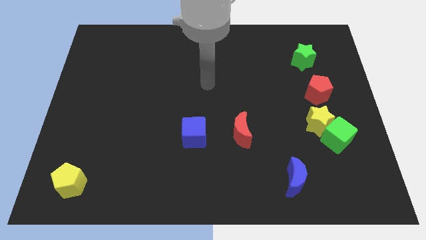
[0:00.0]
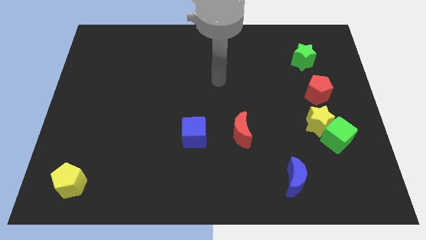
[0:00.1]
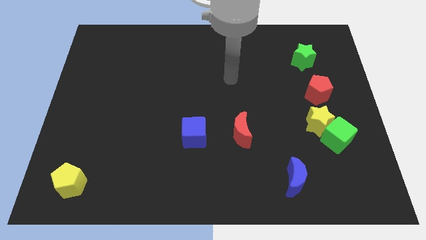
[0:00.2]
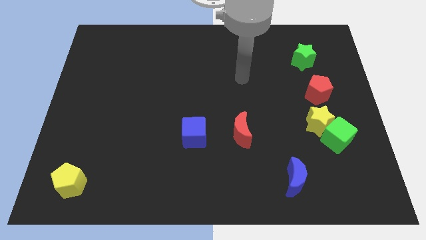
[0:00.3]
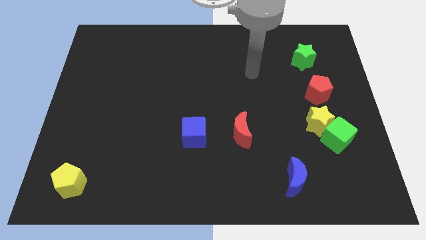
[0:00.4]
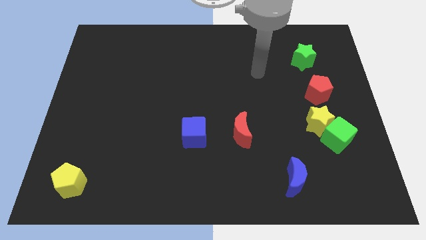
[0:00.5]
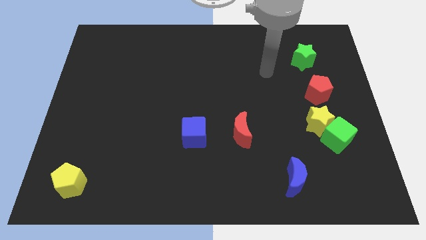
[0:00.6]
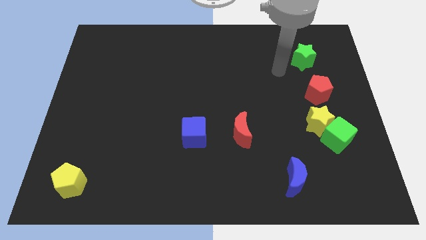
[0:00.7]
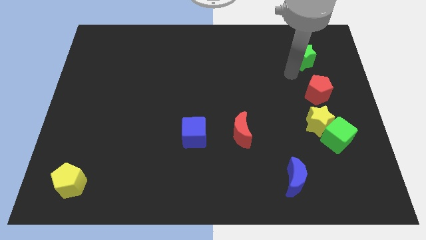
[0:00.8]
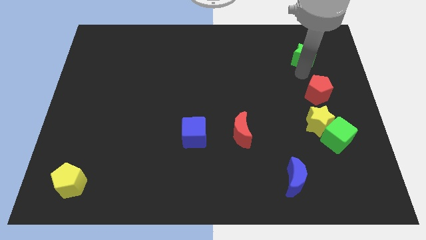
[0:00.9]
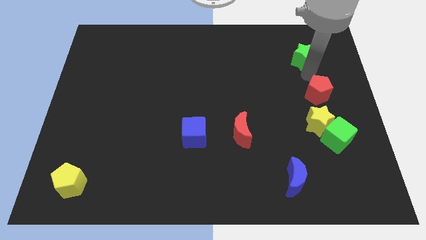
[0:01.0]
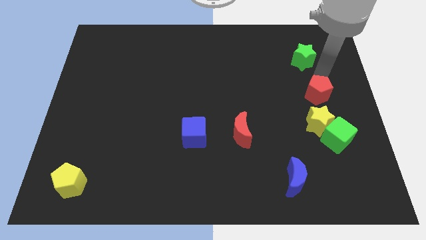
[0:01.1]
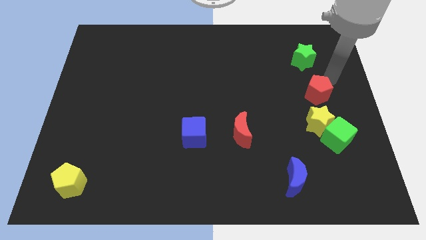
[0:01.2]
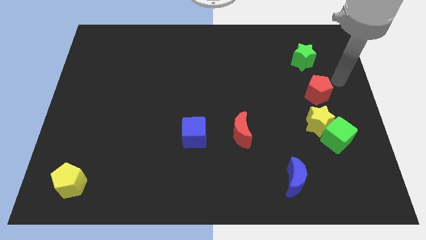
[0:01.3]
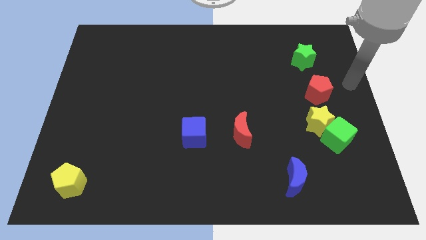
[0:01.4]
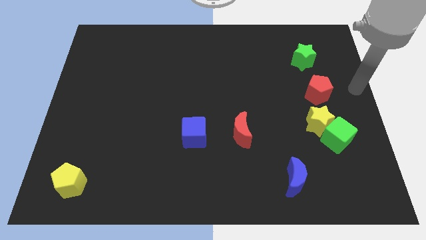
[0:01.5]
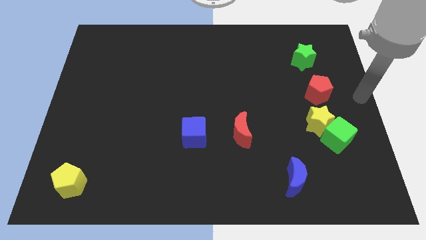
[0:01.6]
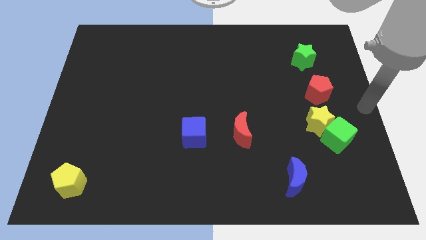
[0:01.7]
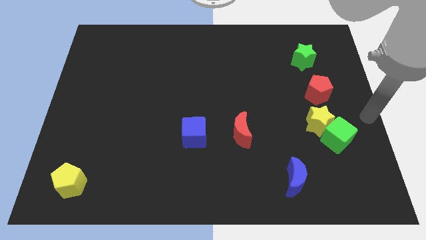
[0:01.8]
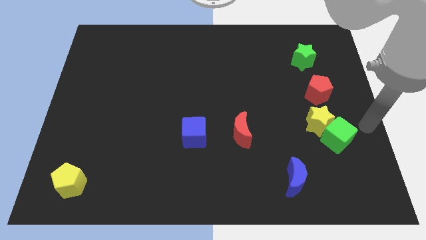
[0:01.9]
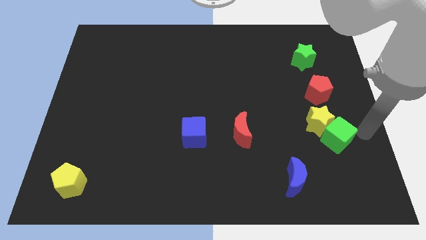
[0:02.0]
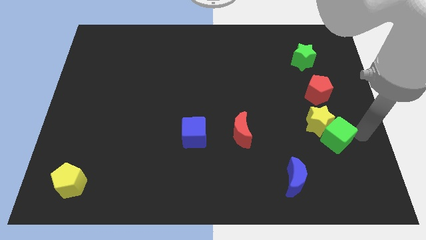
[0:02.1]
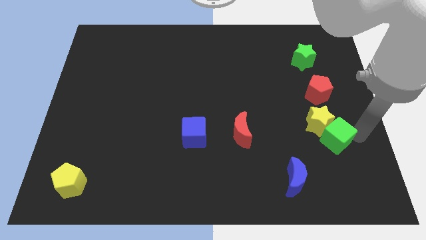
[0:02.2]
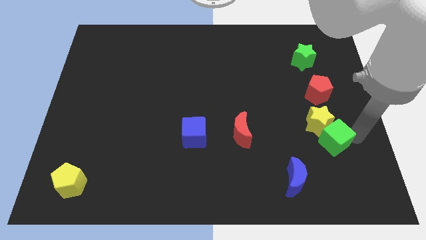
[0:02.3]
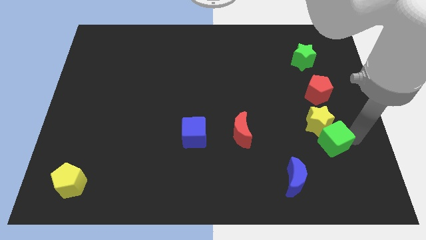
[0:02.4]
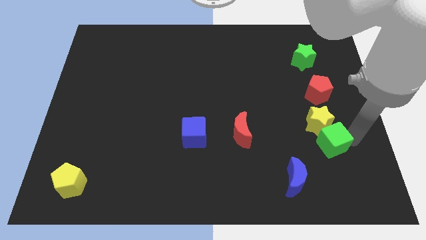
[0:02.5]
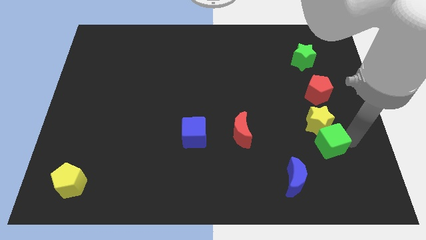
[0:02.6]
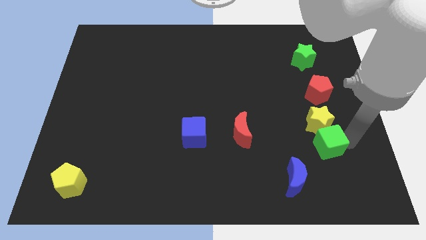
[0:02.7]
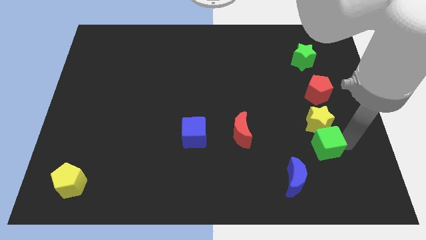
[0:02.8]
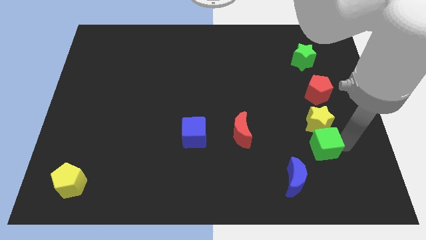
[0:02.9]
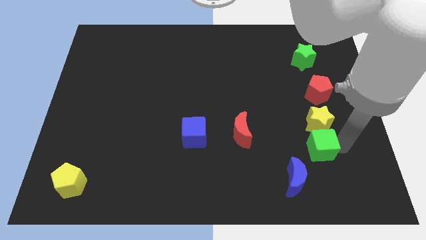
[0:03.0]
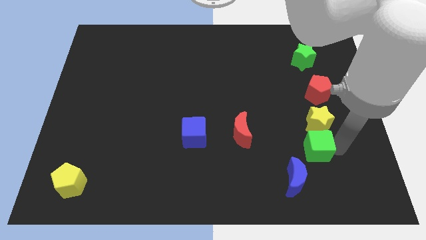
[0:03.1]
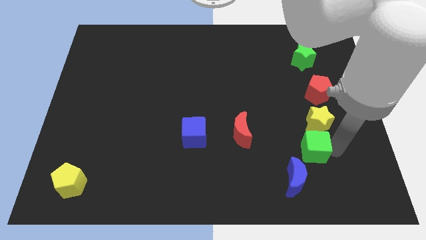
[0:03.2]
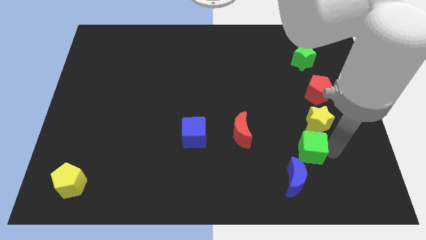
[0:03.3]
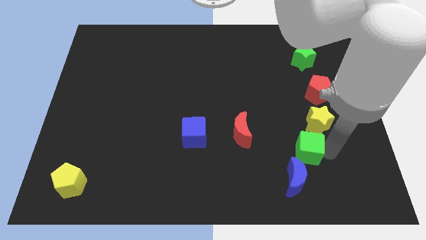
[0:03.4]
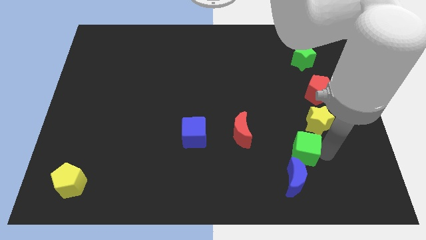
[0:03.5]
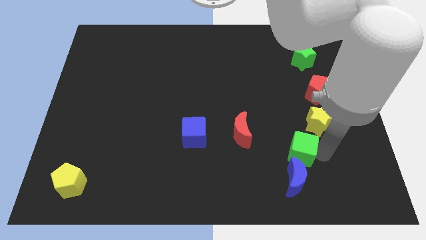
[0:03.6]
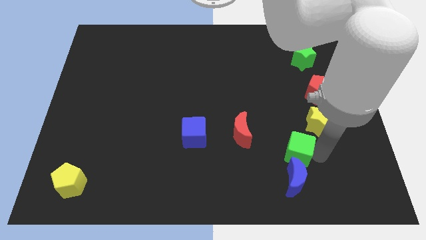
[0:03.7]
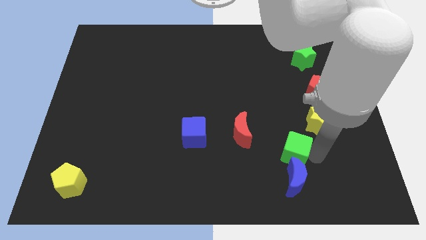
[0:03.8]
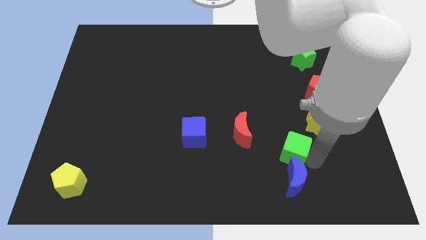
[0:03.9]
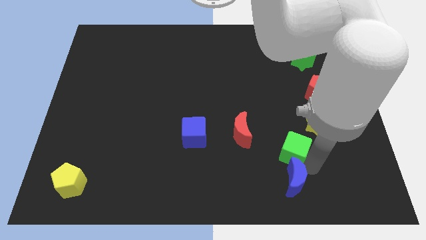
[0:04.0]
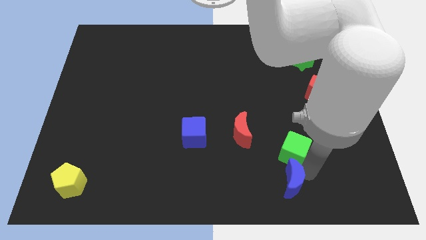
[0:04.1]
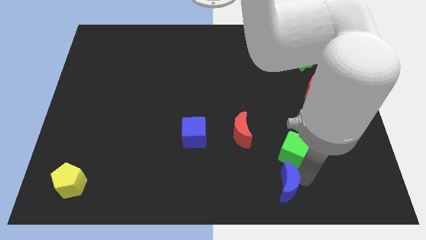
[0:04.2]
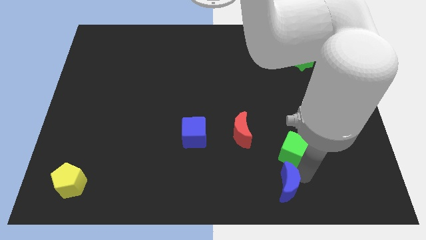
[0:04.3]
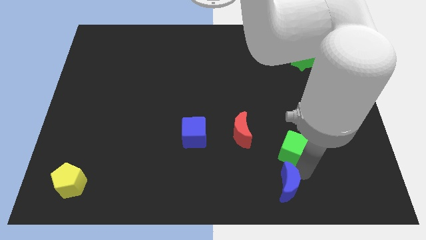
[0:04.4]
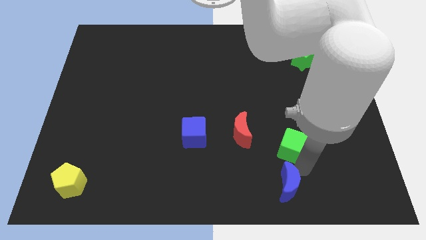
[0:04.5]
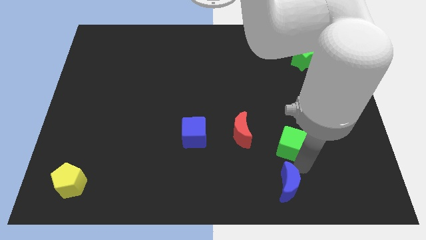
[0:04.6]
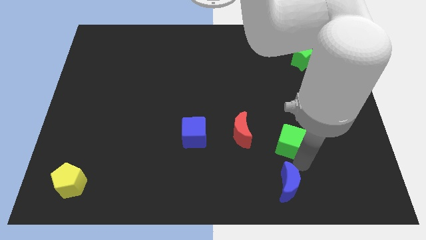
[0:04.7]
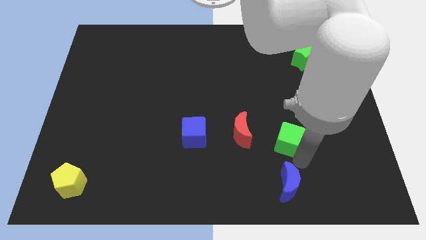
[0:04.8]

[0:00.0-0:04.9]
slide the green cube to the left of the yellow star

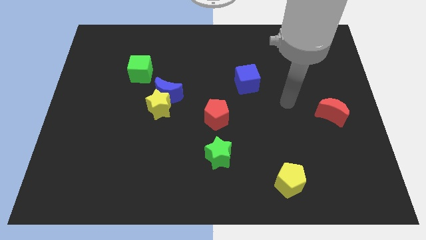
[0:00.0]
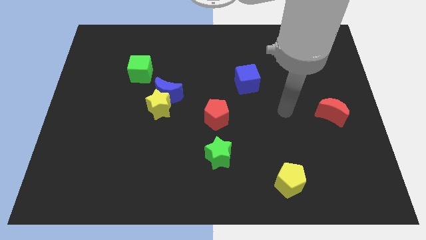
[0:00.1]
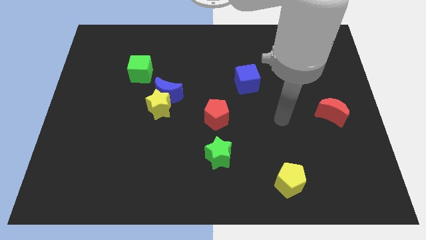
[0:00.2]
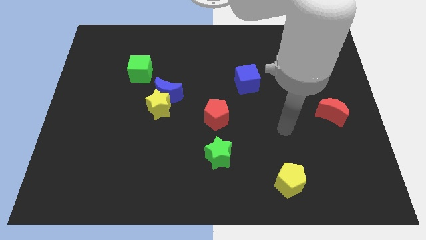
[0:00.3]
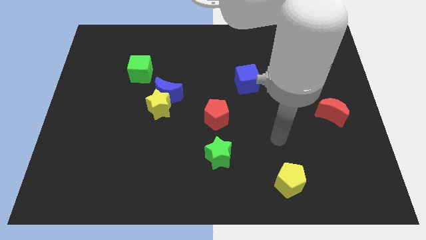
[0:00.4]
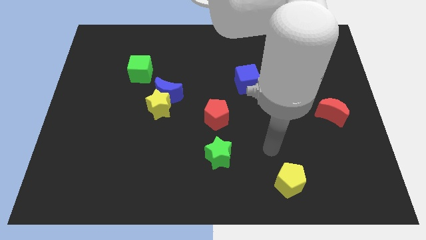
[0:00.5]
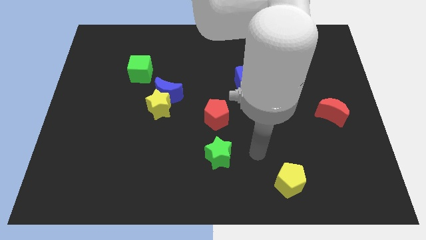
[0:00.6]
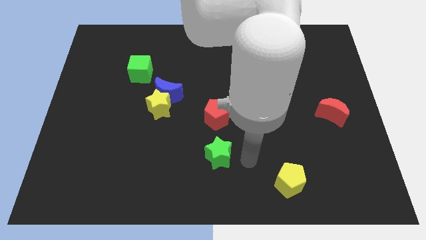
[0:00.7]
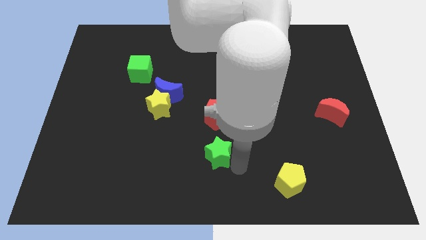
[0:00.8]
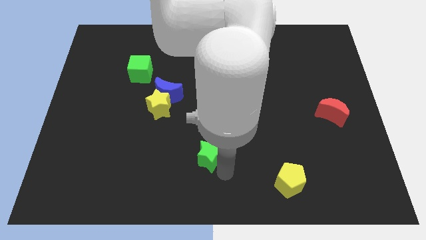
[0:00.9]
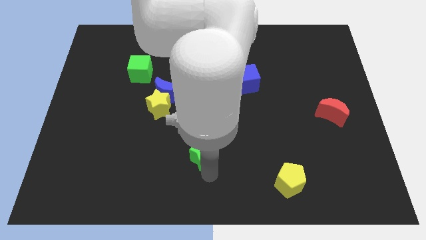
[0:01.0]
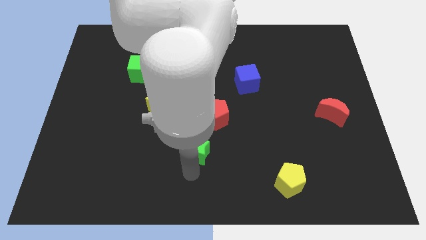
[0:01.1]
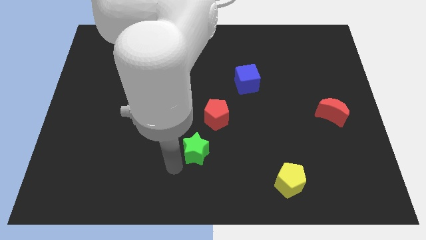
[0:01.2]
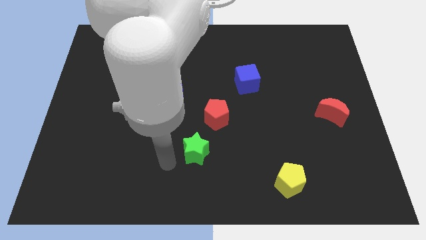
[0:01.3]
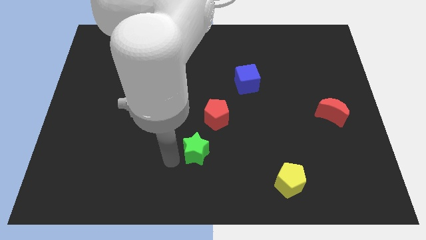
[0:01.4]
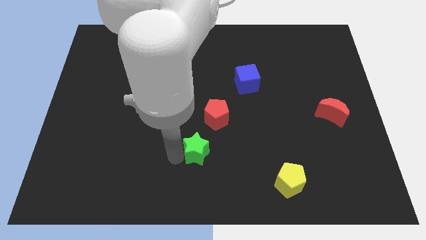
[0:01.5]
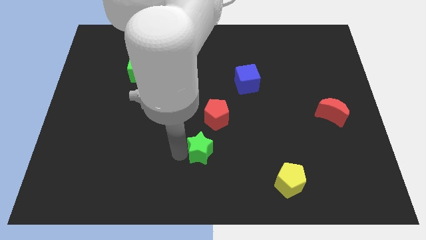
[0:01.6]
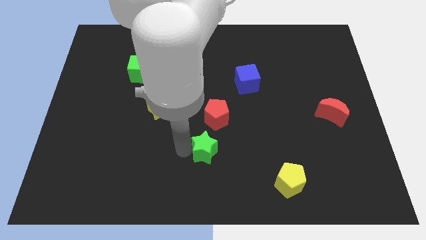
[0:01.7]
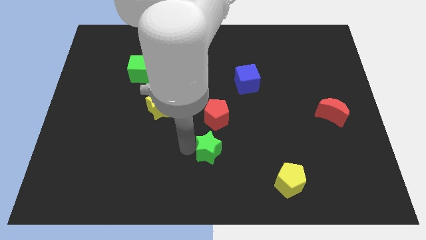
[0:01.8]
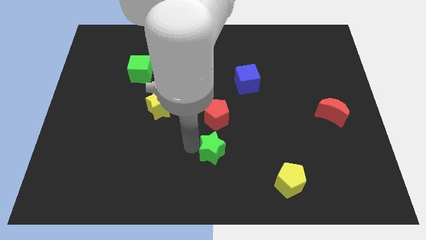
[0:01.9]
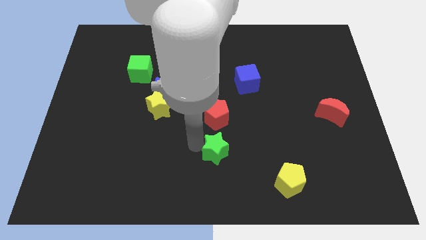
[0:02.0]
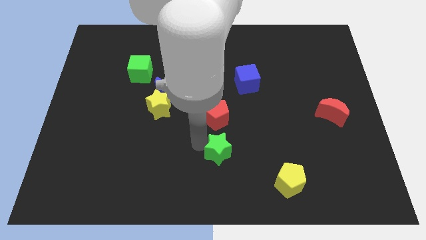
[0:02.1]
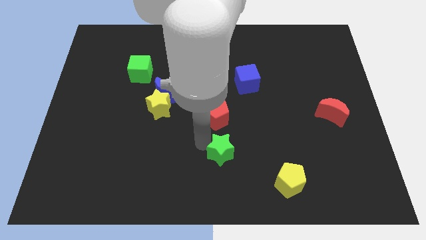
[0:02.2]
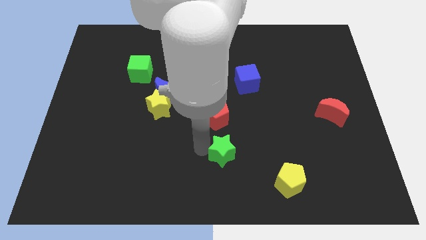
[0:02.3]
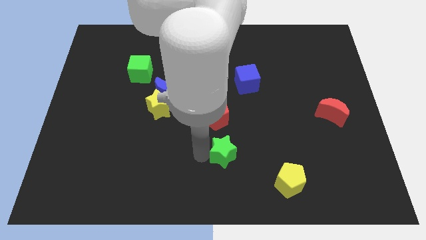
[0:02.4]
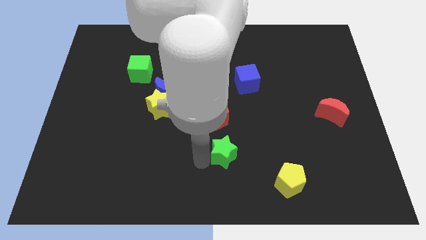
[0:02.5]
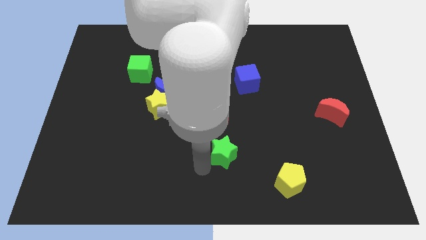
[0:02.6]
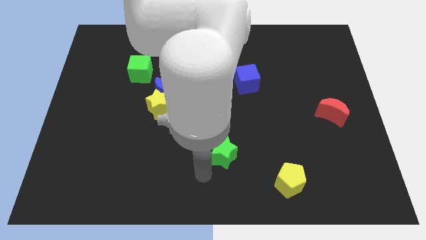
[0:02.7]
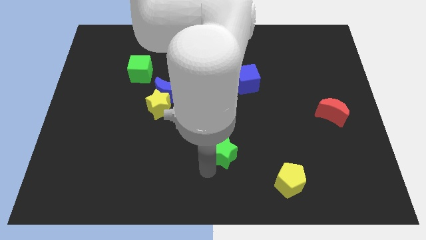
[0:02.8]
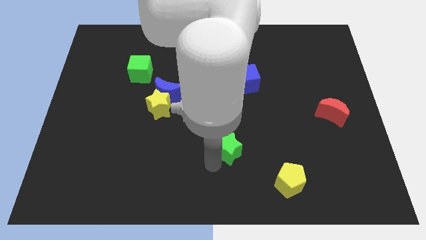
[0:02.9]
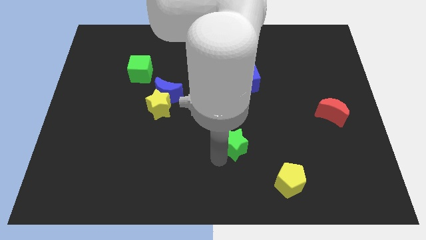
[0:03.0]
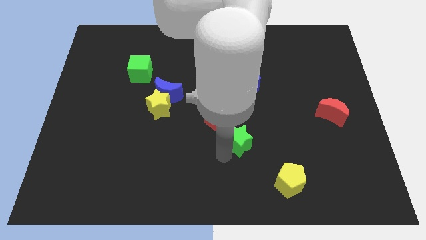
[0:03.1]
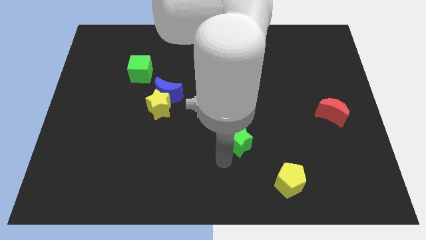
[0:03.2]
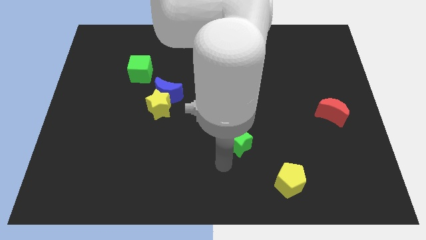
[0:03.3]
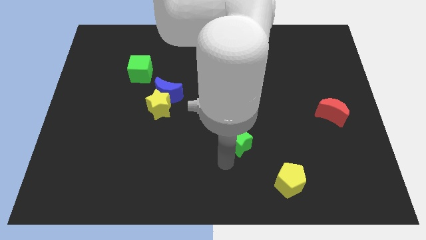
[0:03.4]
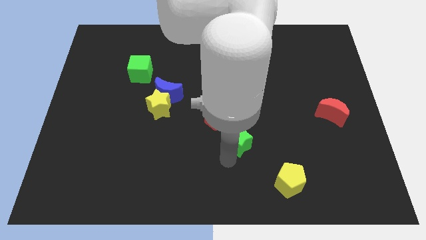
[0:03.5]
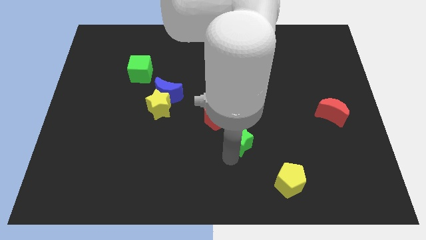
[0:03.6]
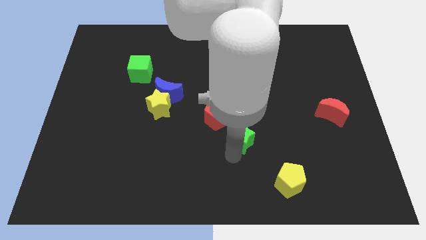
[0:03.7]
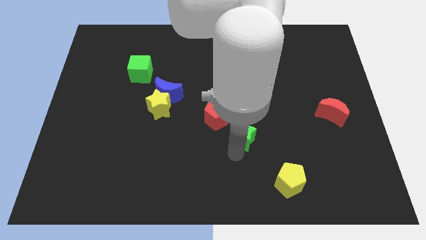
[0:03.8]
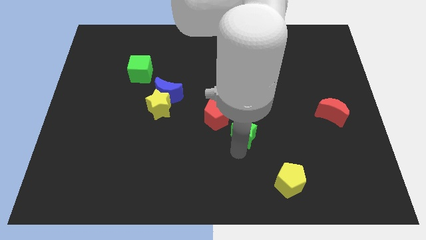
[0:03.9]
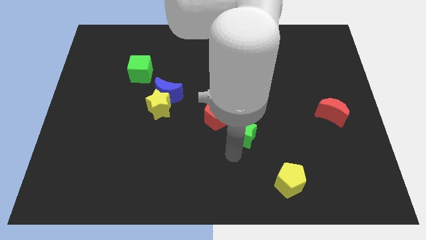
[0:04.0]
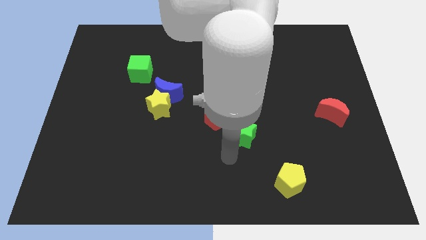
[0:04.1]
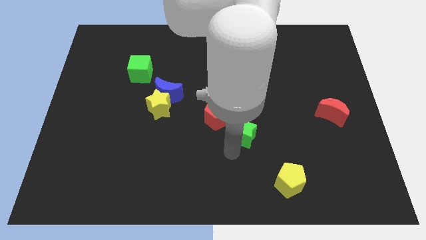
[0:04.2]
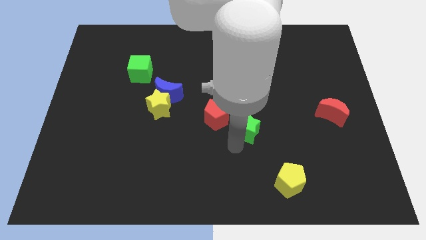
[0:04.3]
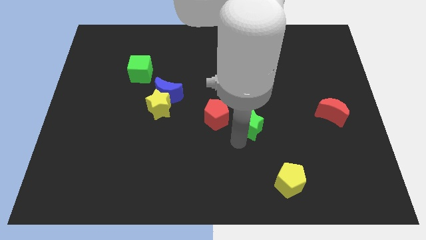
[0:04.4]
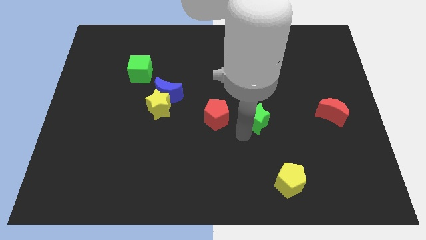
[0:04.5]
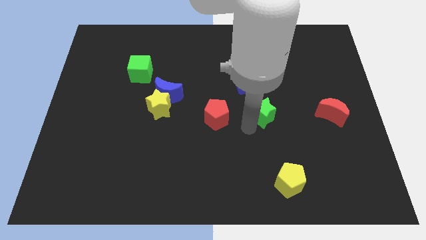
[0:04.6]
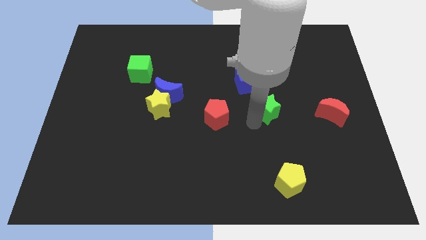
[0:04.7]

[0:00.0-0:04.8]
slide the green star to the bottom right side of the blue cube
